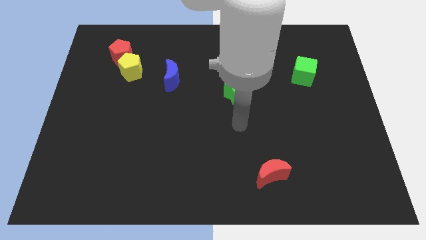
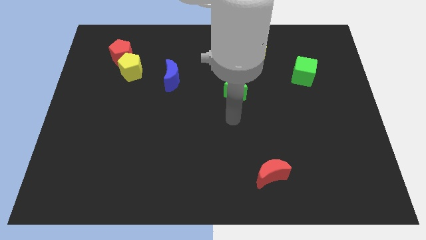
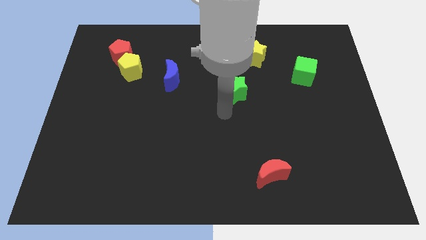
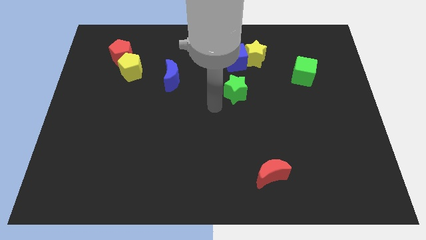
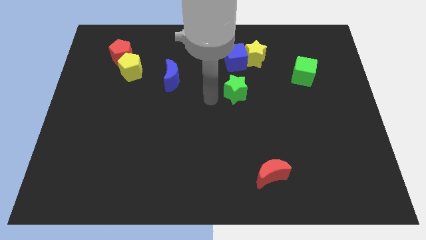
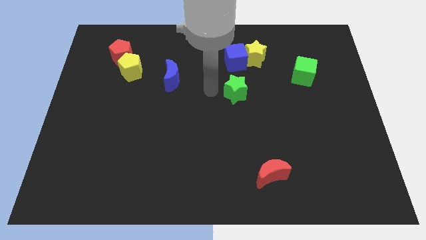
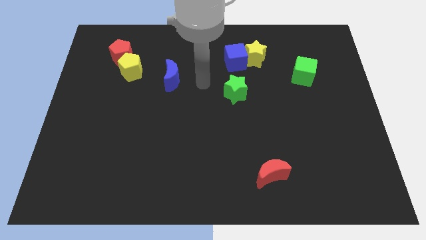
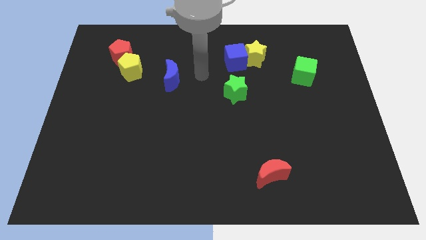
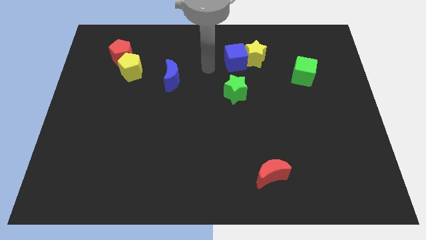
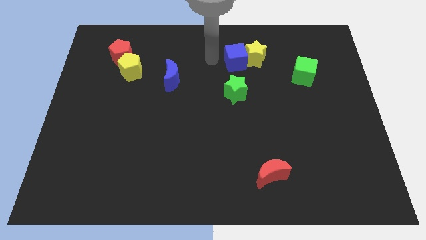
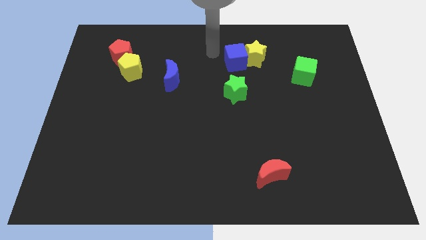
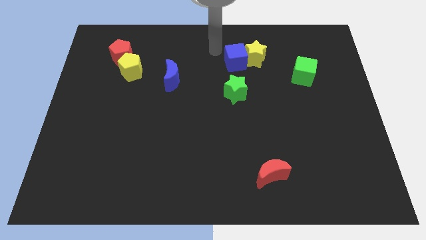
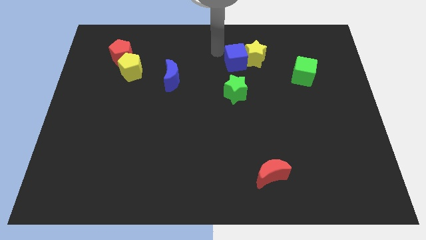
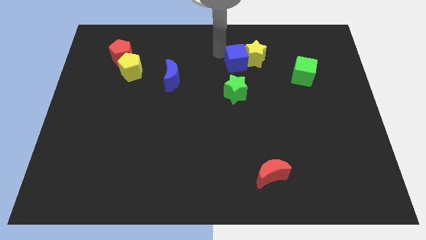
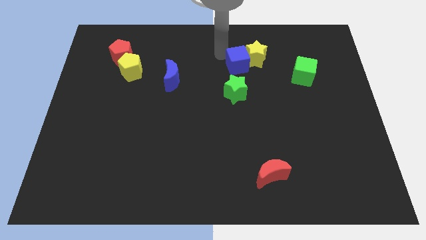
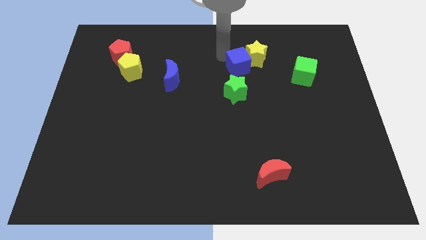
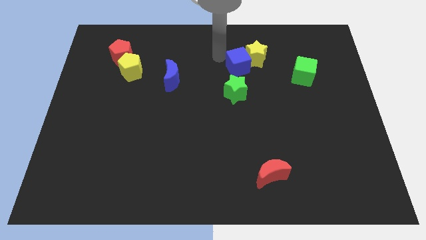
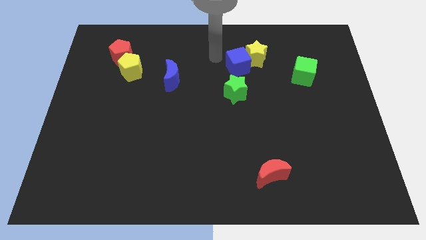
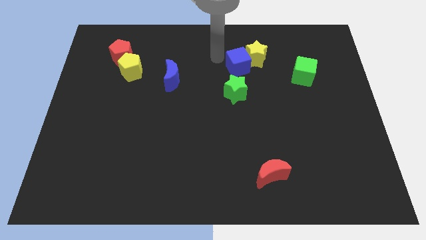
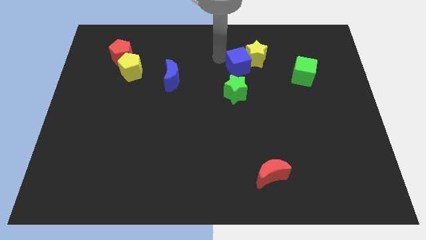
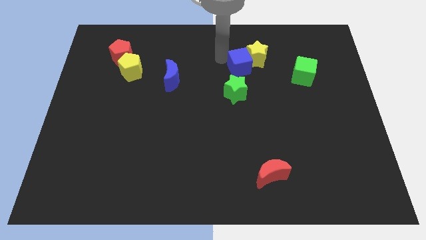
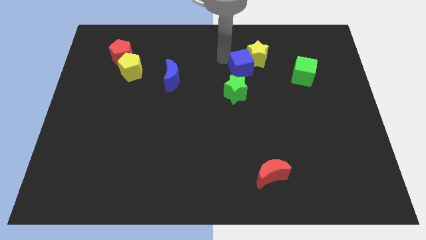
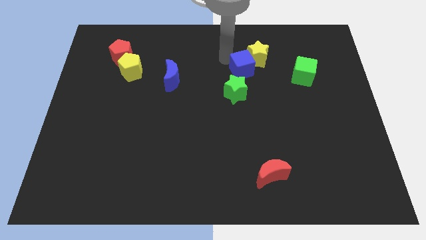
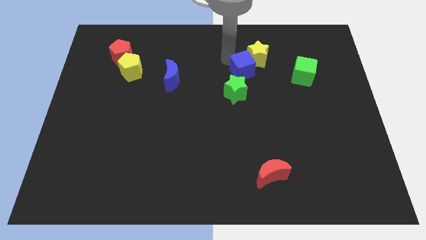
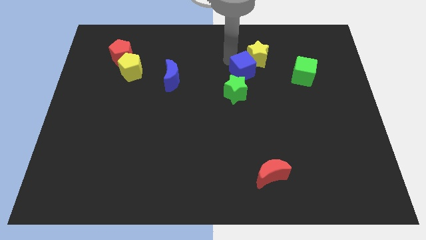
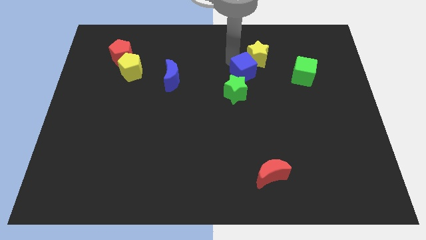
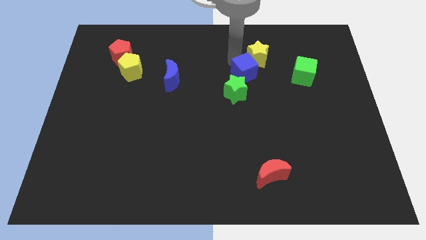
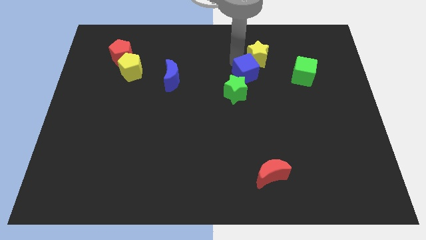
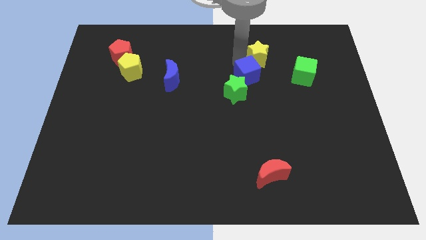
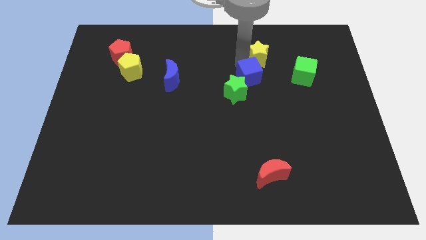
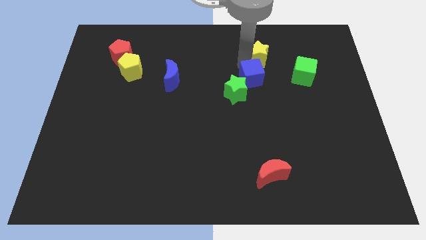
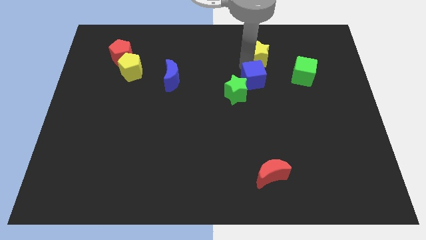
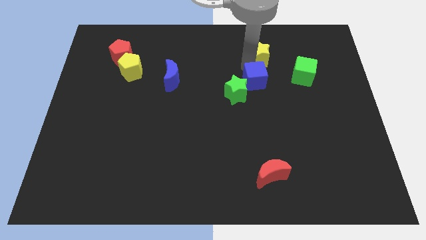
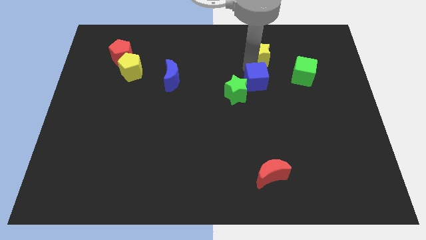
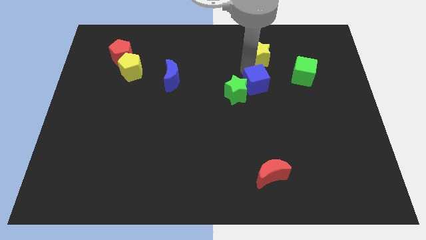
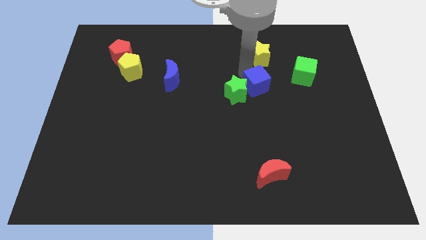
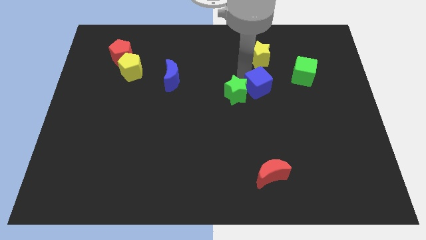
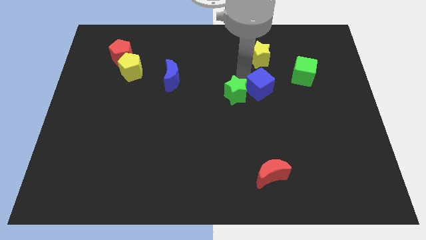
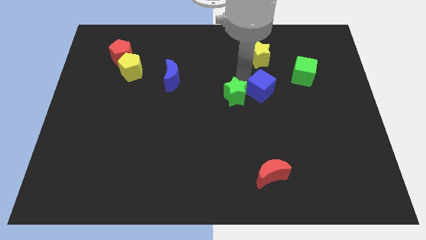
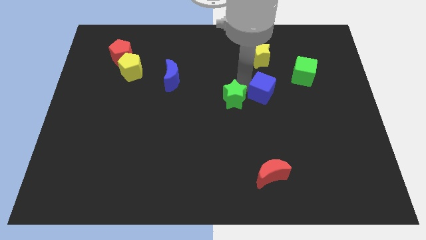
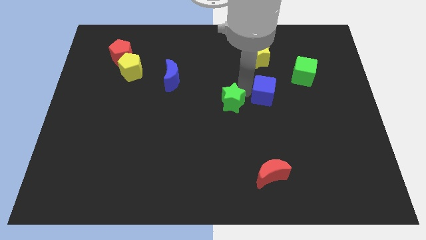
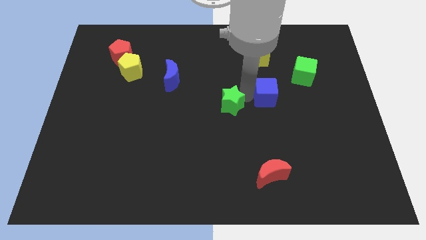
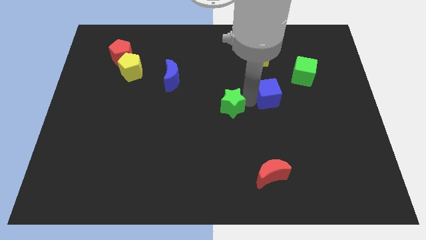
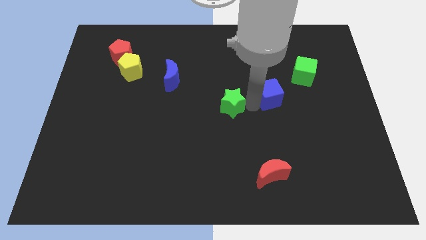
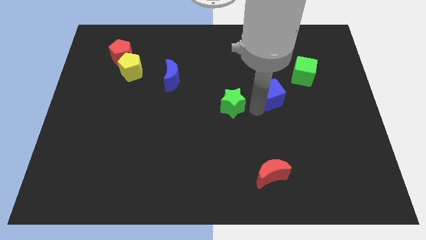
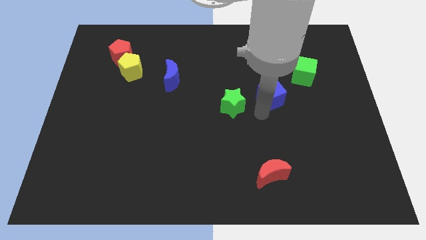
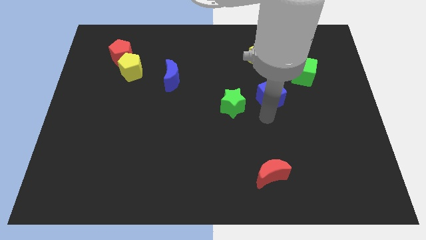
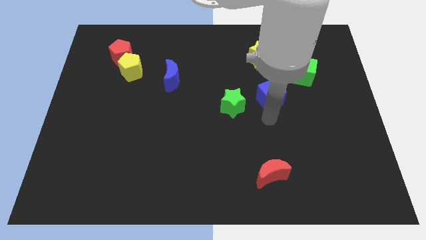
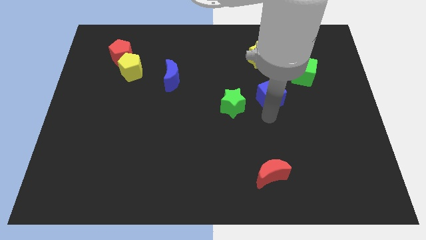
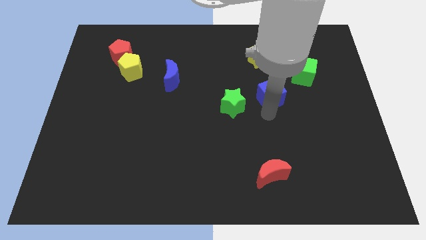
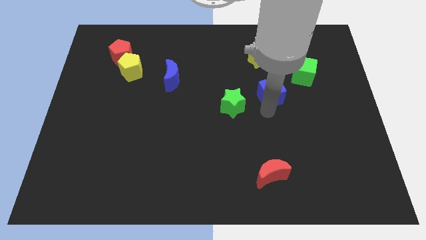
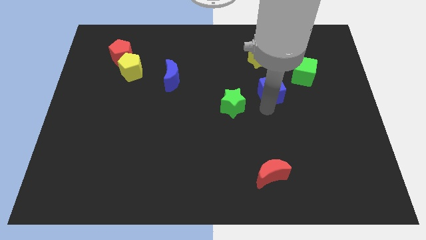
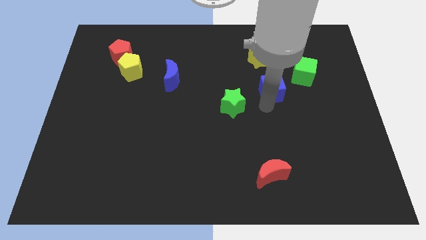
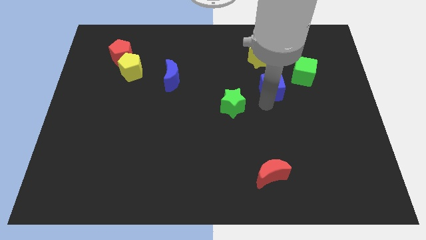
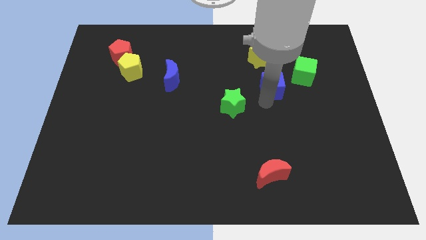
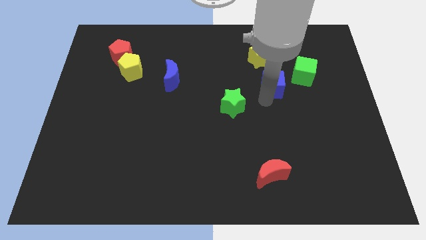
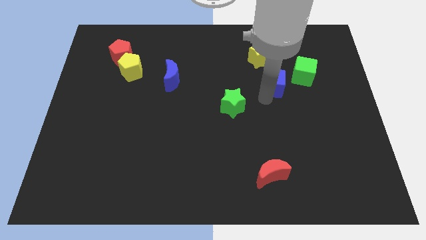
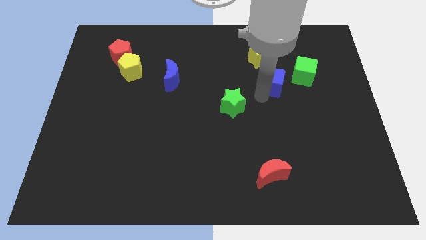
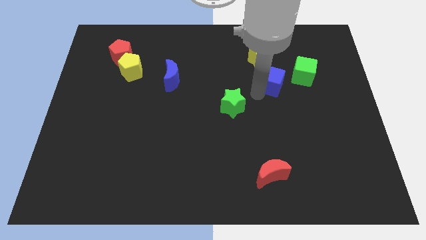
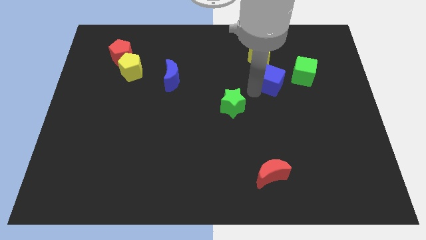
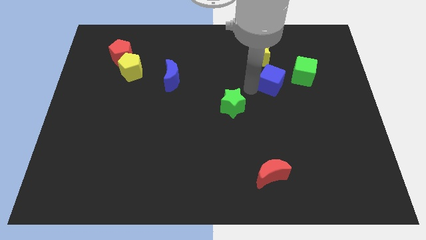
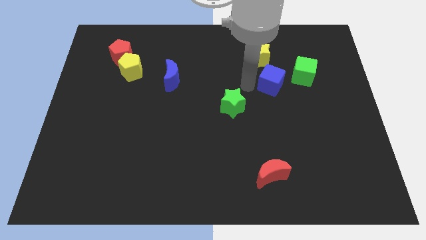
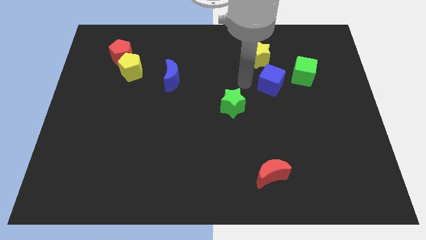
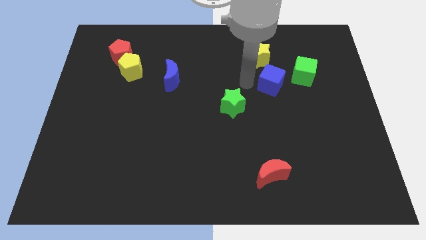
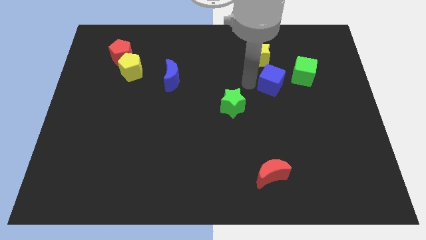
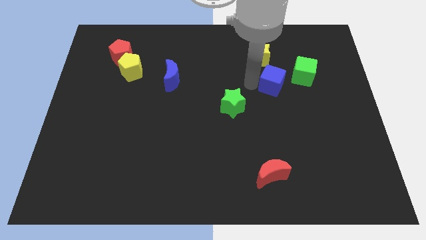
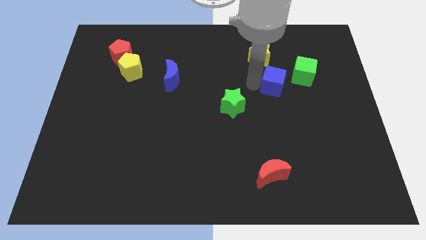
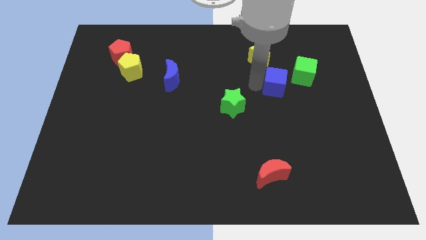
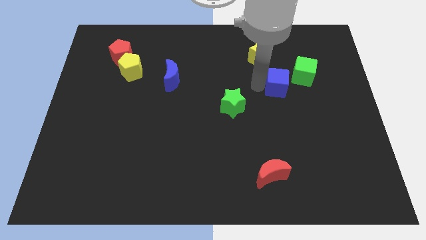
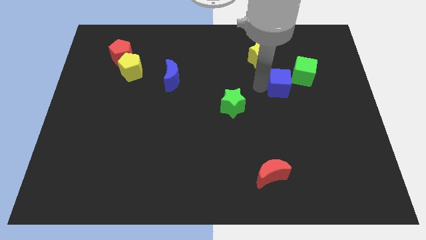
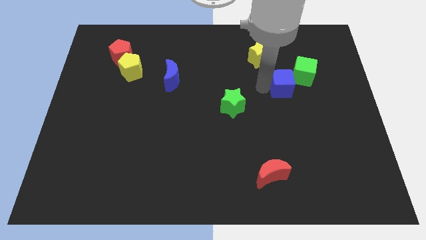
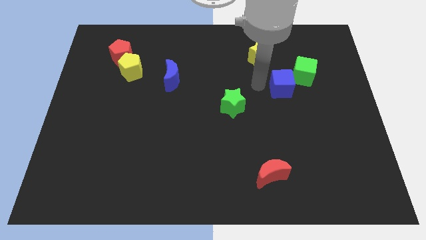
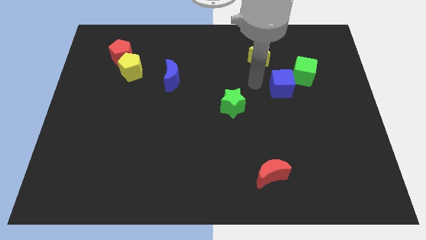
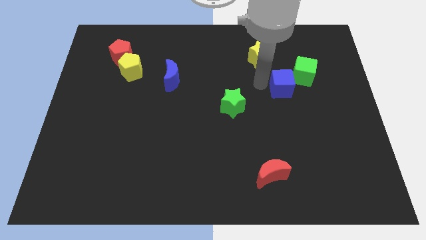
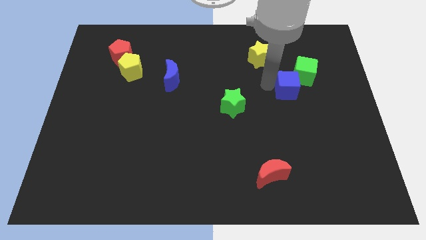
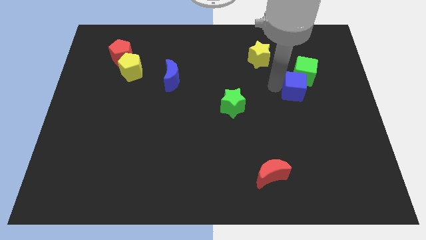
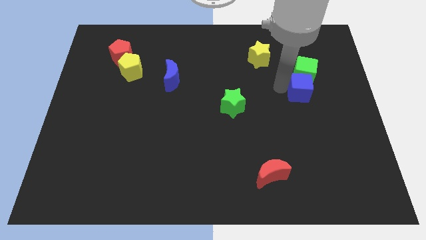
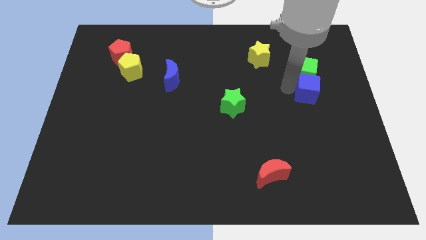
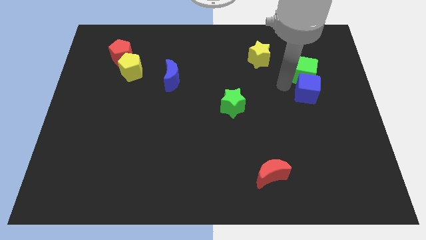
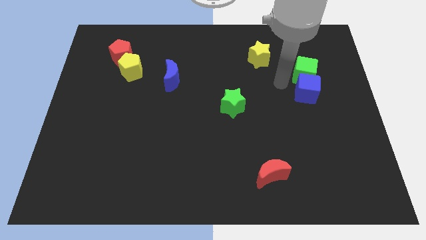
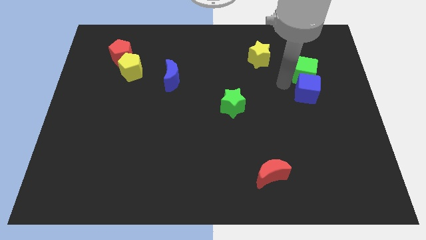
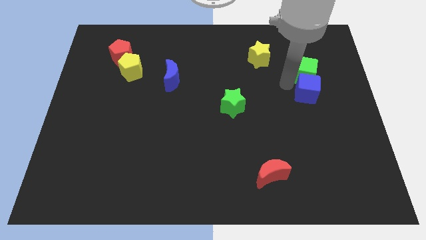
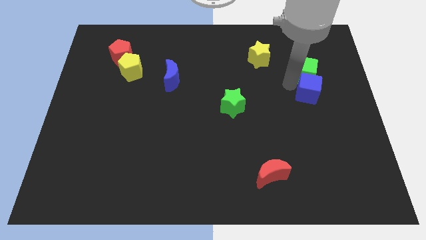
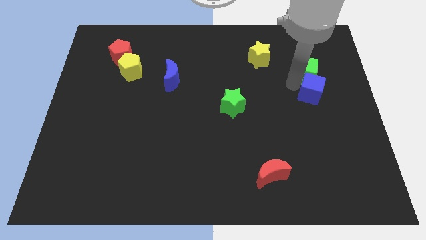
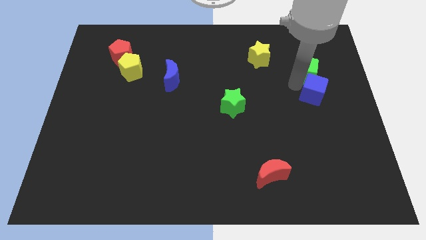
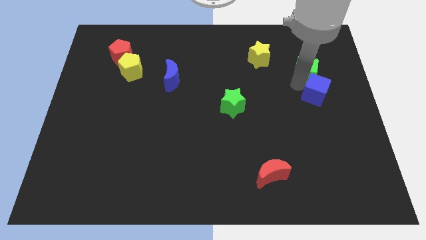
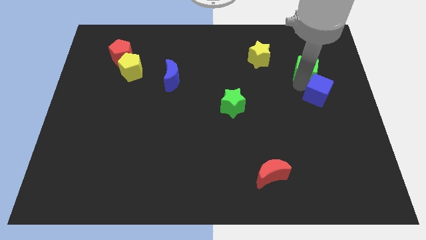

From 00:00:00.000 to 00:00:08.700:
put the blue cube to the right side
